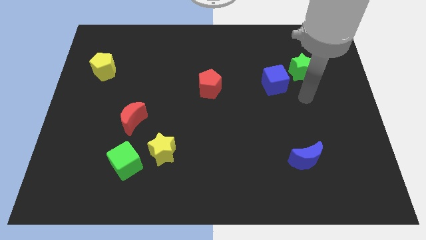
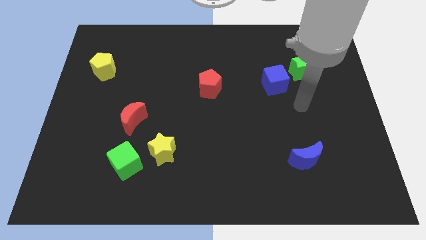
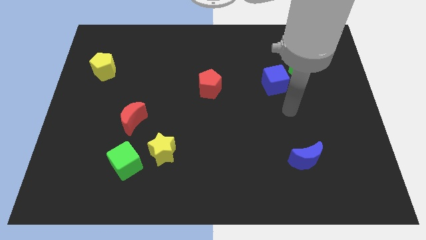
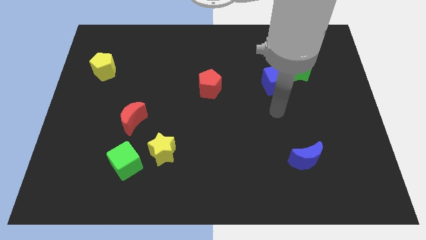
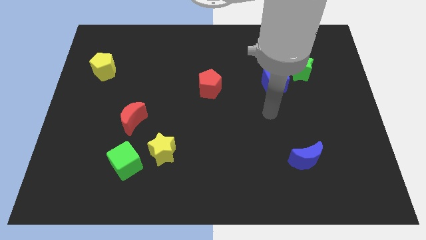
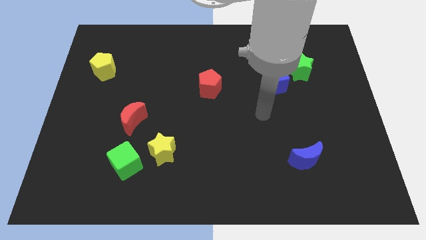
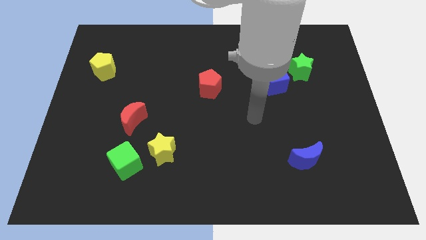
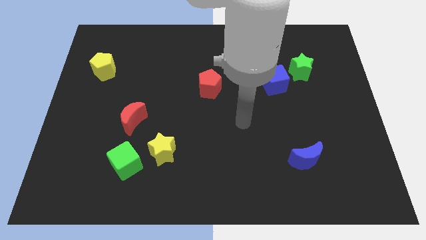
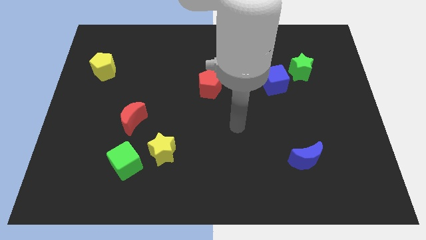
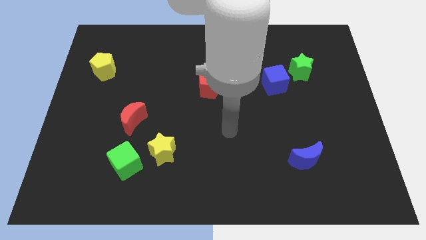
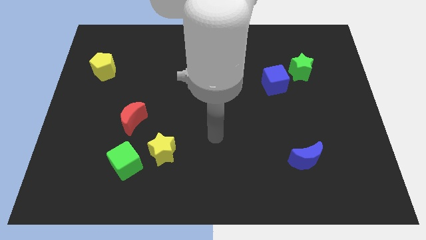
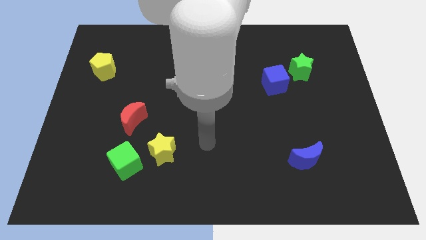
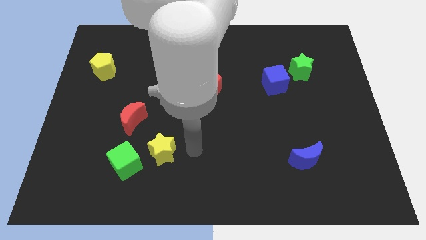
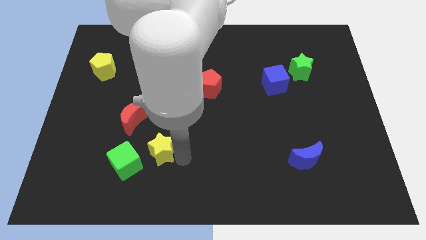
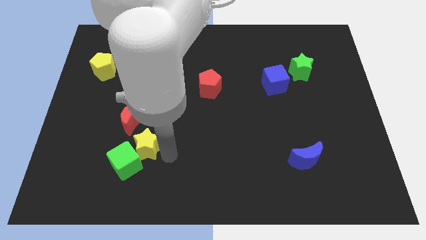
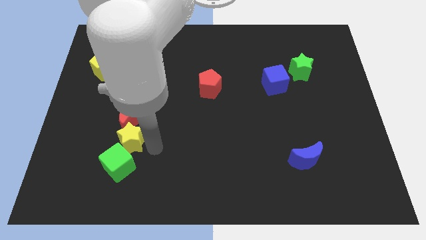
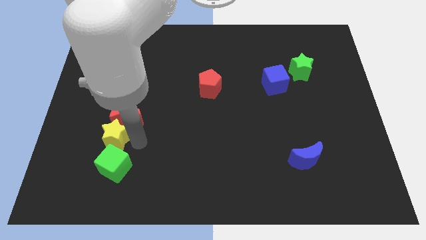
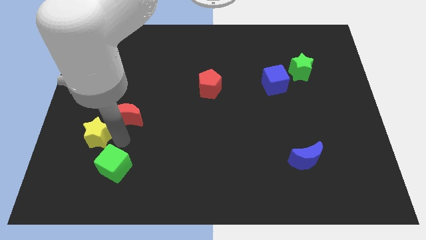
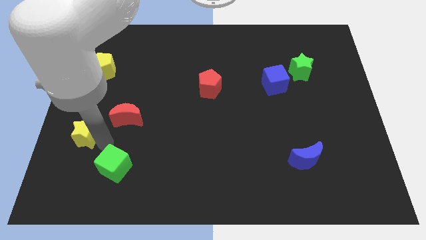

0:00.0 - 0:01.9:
pull the green cube apart from the yellow star

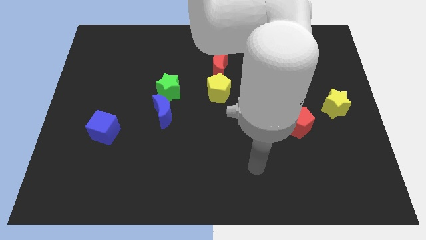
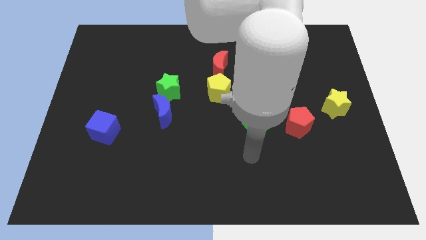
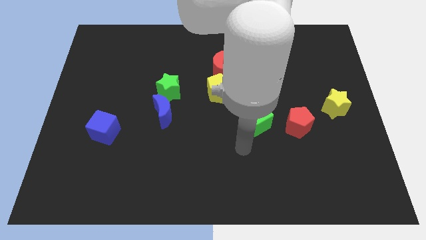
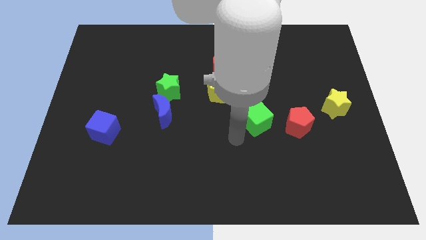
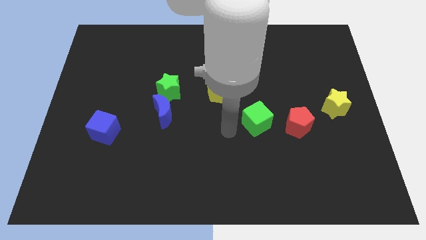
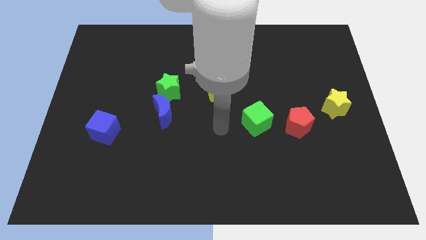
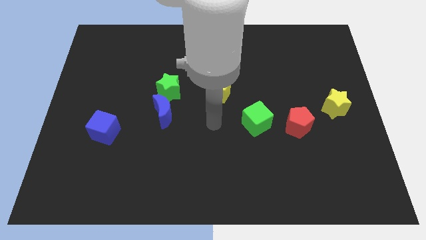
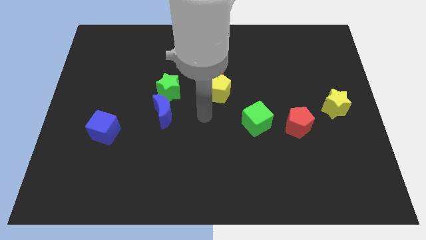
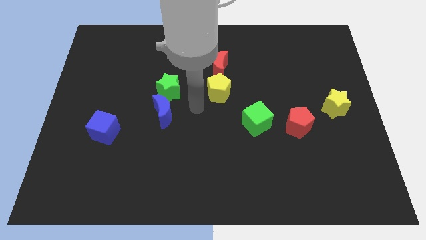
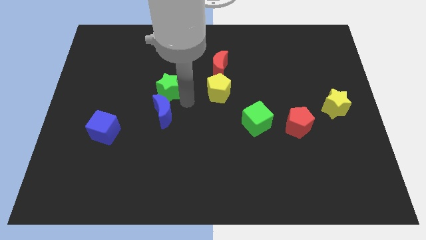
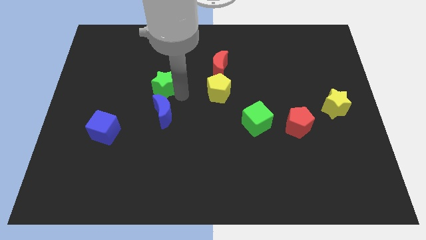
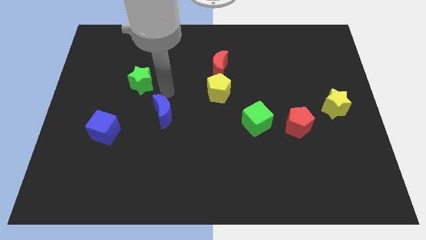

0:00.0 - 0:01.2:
move the blue moon away from the green star

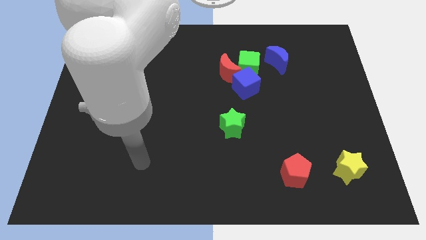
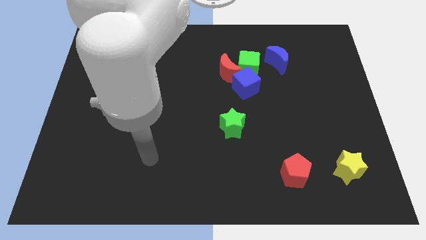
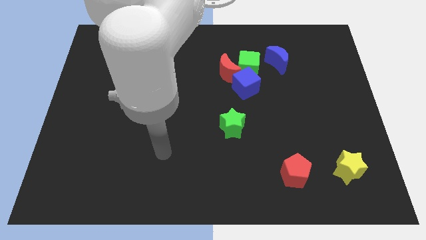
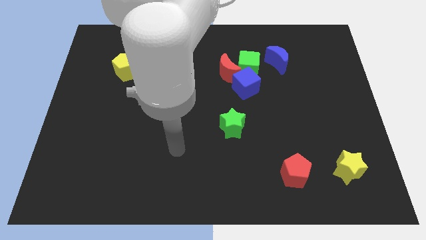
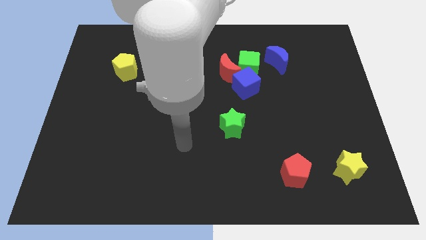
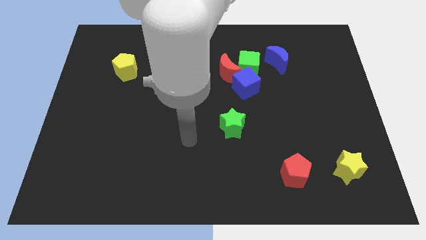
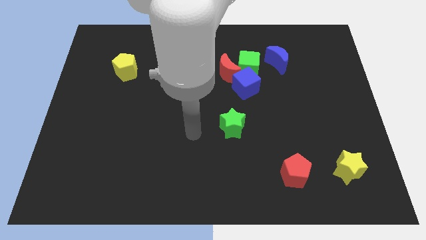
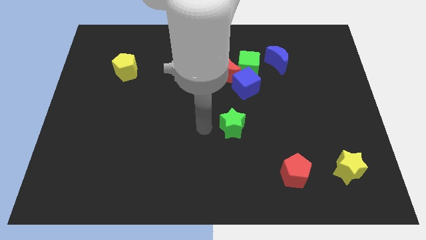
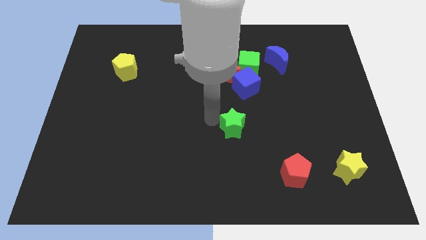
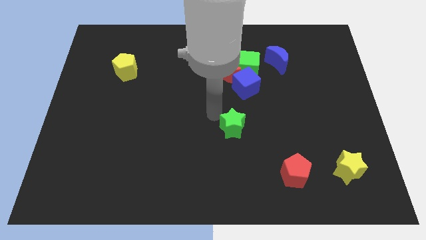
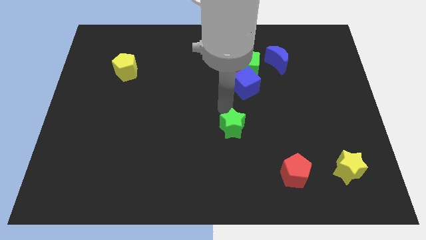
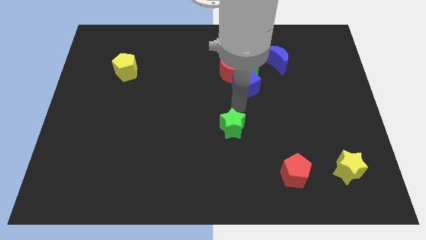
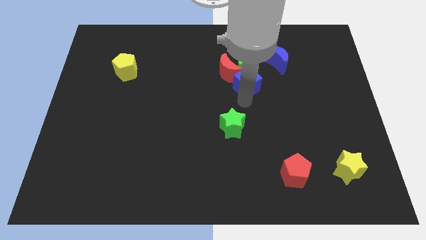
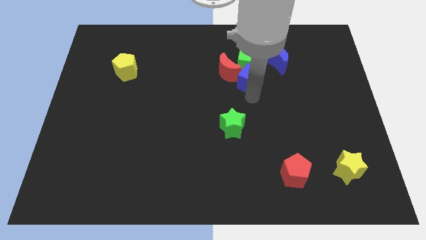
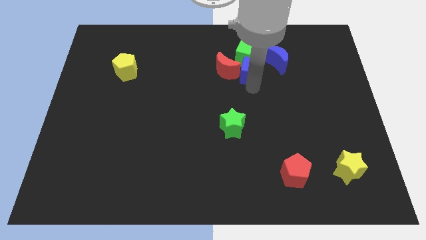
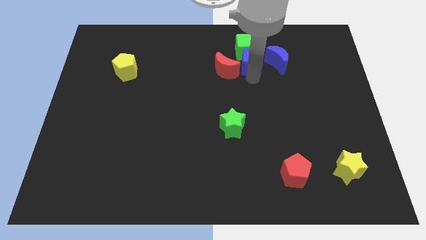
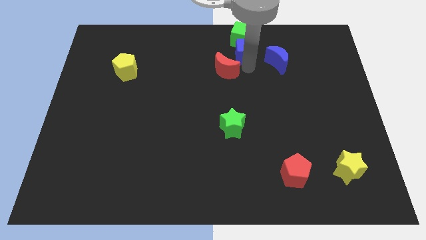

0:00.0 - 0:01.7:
pull the red moon apart from the green cube and blue cube

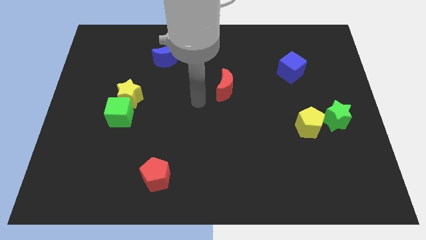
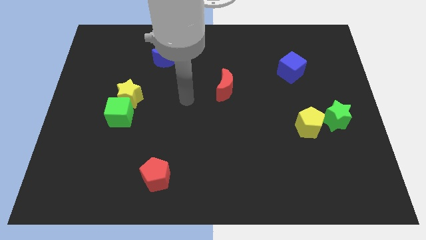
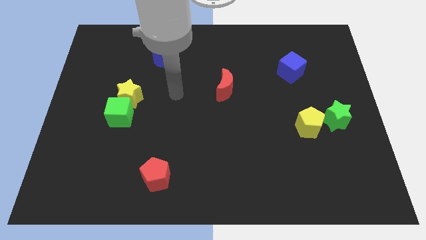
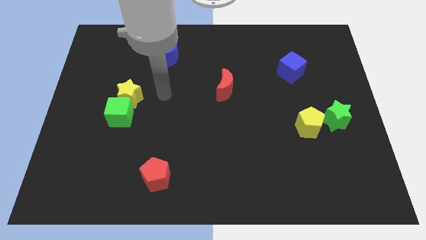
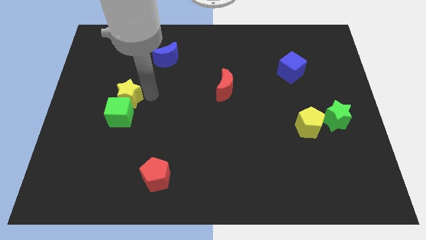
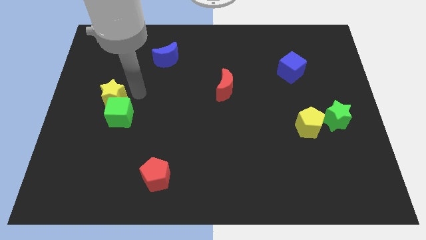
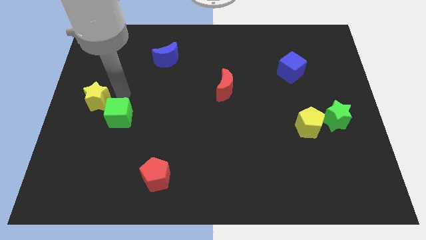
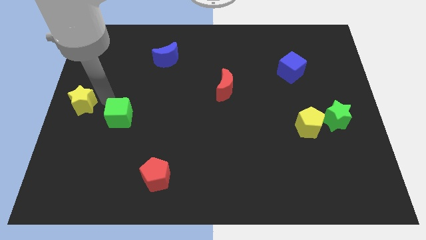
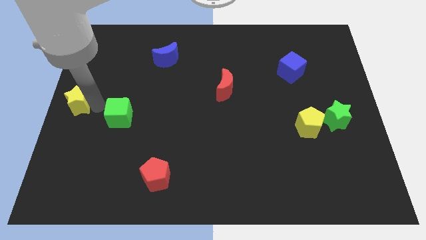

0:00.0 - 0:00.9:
separate the green cube from the yellow star

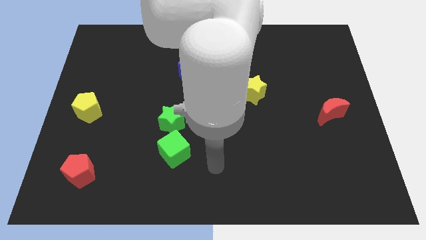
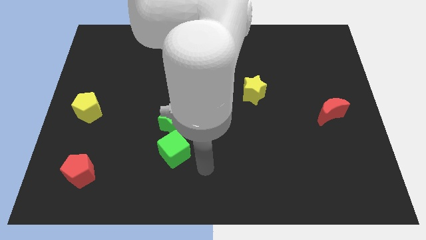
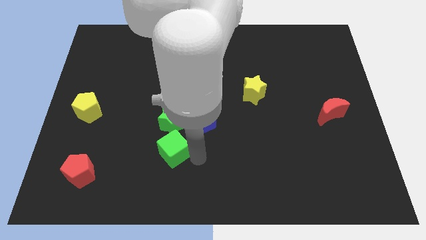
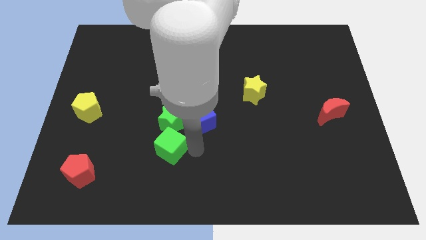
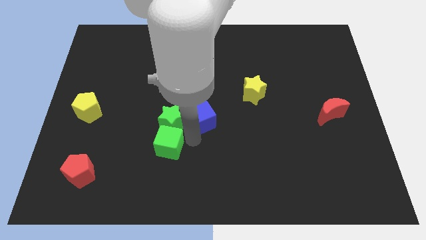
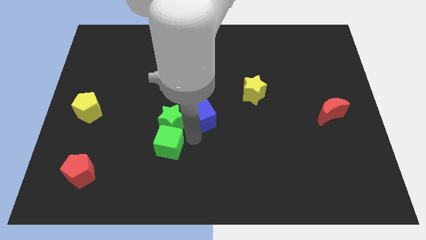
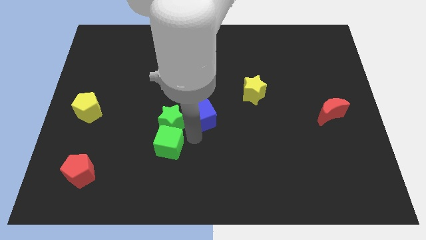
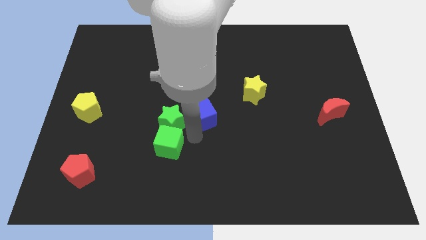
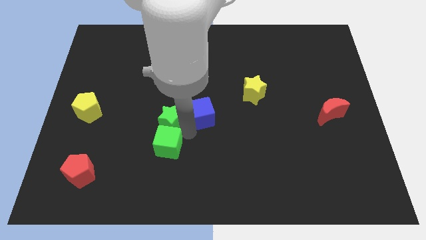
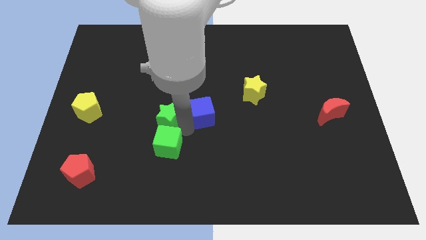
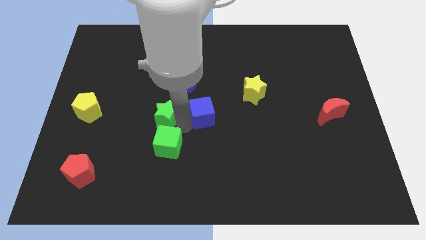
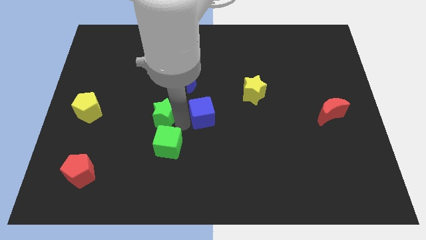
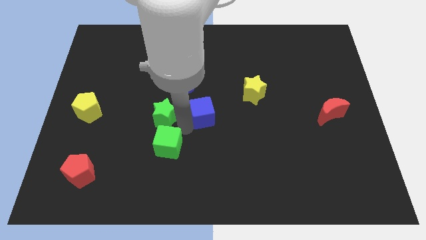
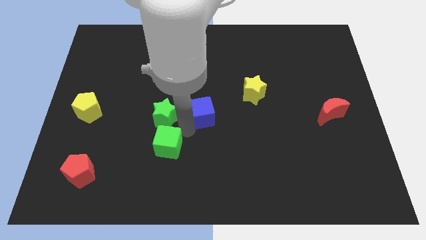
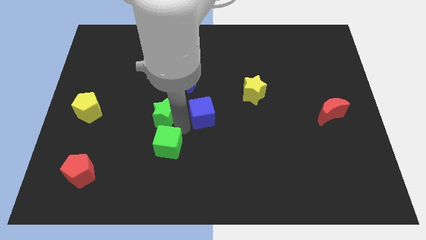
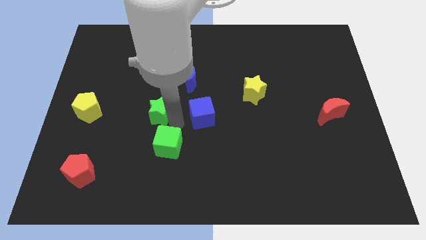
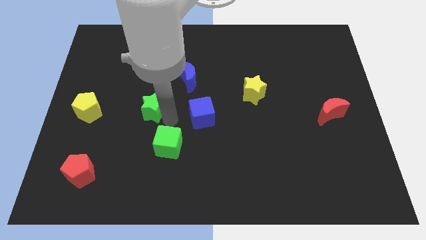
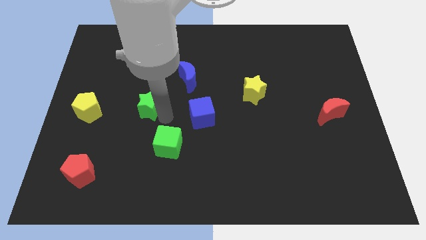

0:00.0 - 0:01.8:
move the green star away from the blue cube and green cube

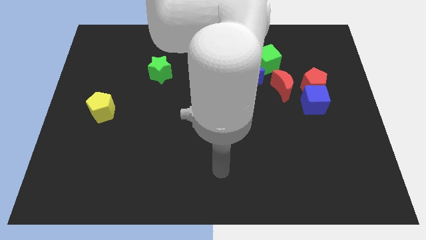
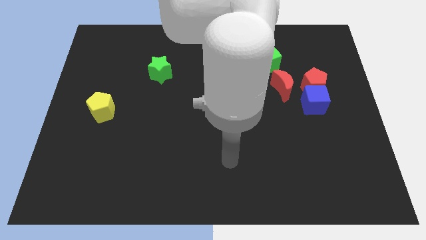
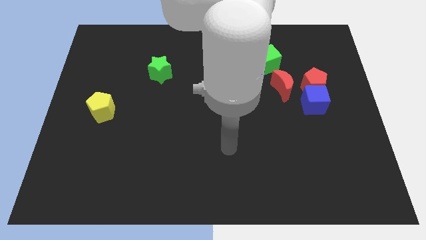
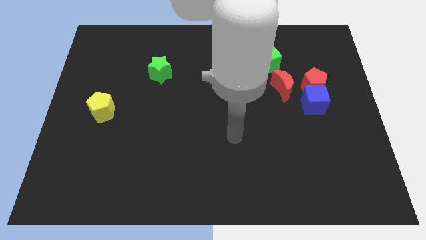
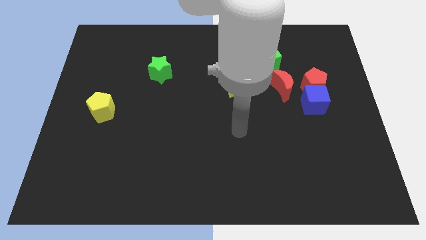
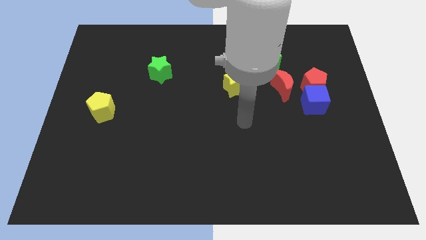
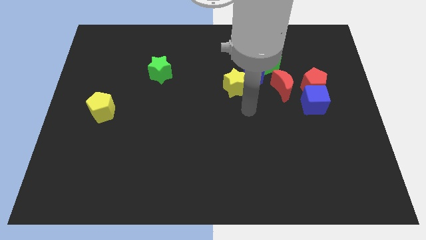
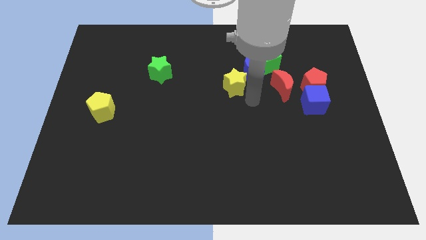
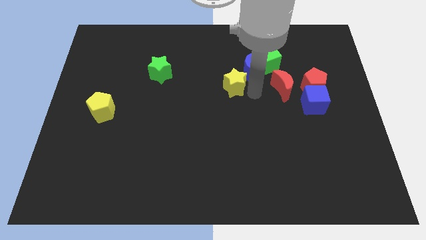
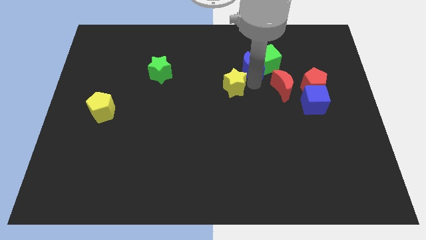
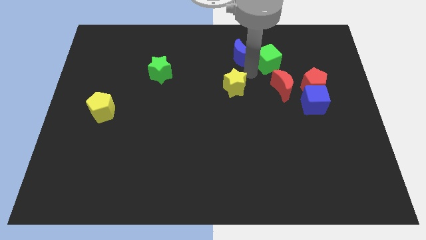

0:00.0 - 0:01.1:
separate the yellow star from the blue moon

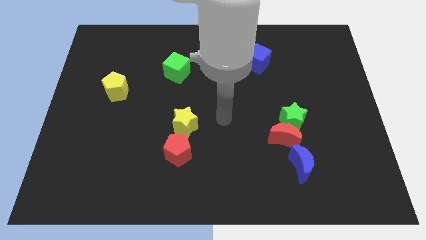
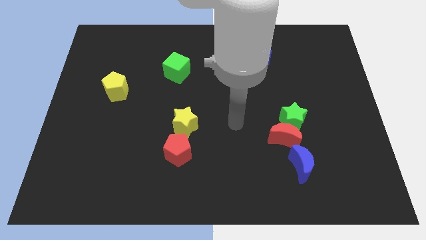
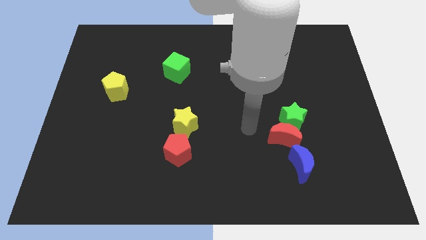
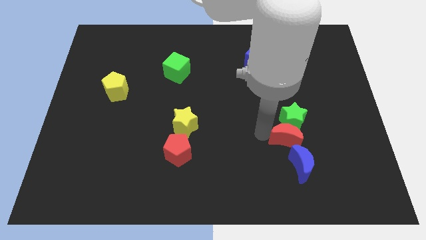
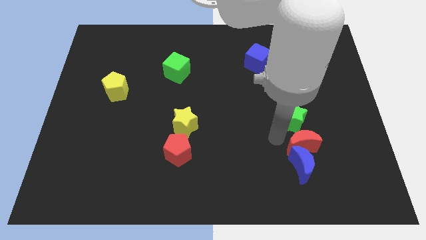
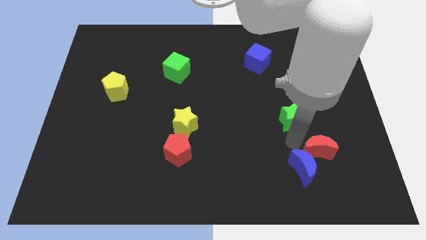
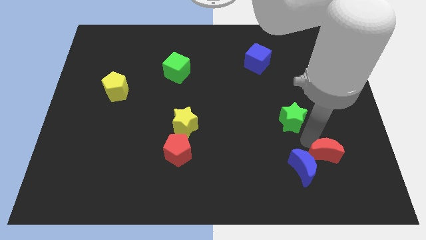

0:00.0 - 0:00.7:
separate the green star from the red moon
